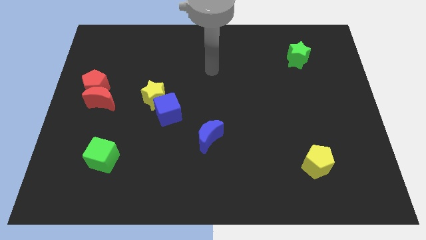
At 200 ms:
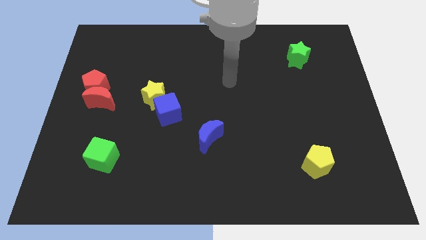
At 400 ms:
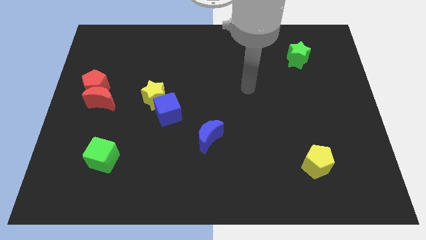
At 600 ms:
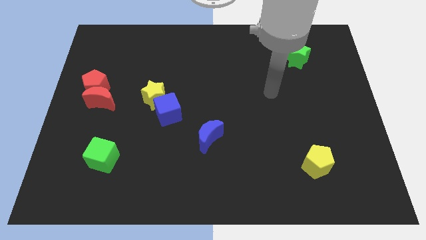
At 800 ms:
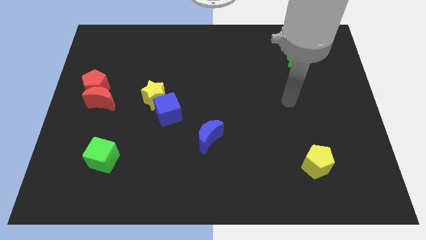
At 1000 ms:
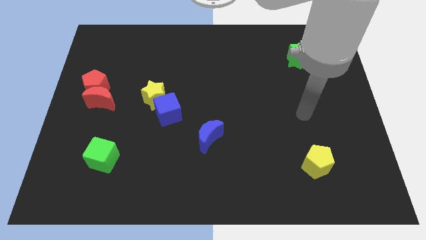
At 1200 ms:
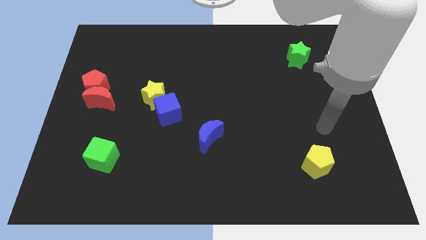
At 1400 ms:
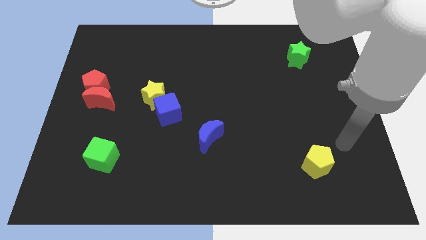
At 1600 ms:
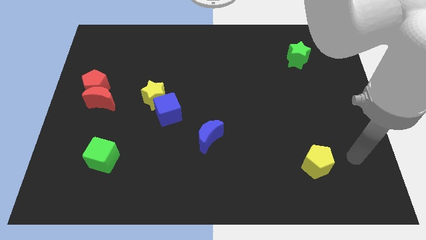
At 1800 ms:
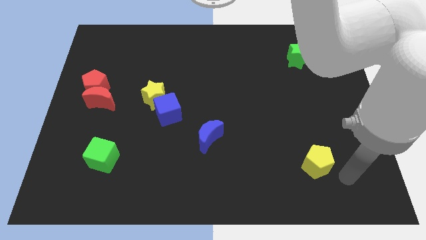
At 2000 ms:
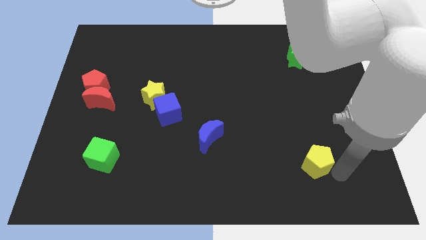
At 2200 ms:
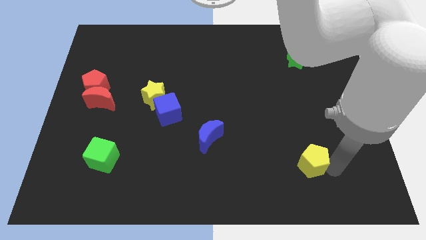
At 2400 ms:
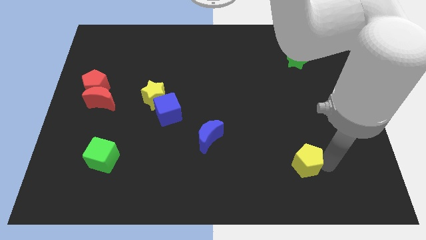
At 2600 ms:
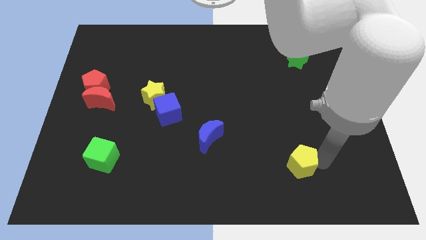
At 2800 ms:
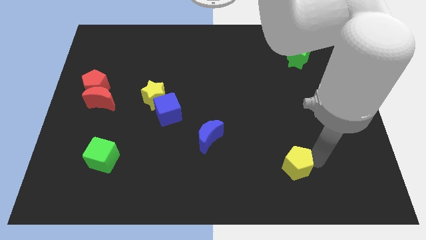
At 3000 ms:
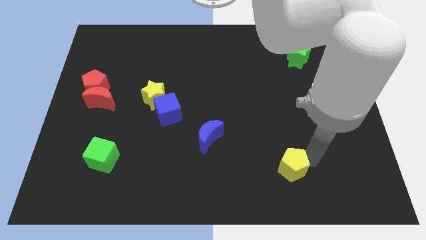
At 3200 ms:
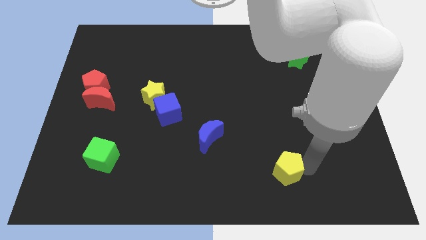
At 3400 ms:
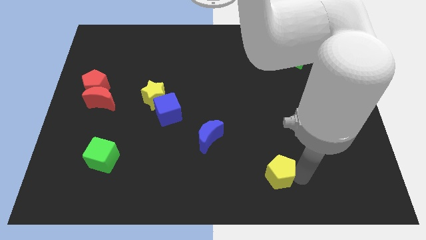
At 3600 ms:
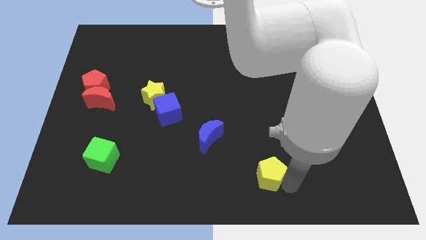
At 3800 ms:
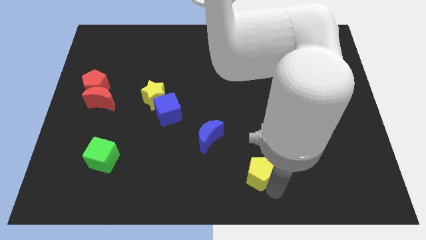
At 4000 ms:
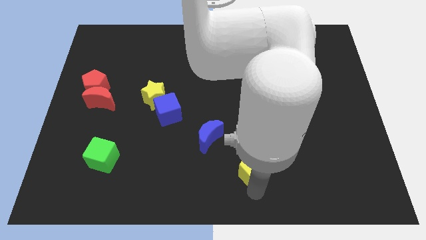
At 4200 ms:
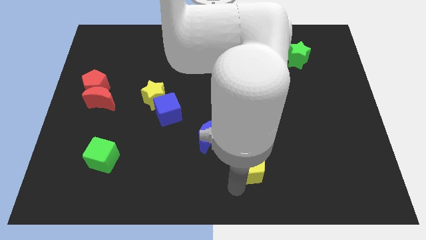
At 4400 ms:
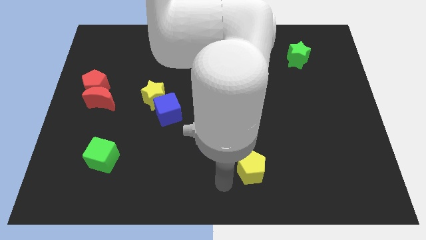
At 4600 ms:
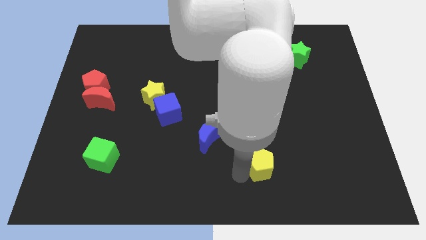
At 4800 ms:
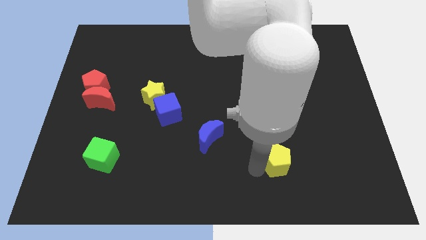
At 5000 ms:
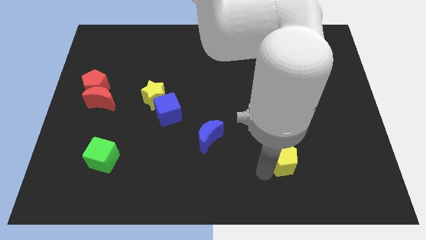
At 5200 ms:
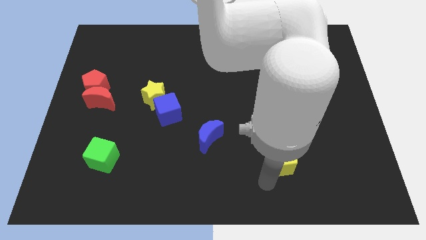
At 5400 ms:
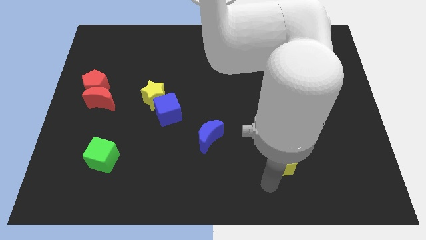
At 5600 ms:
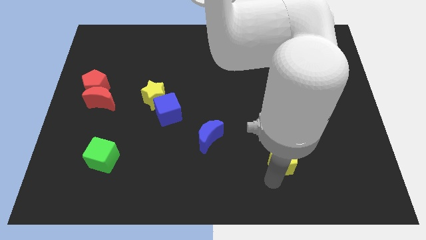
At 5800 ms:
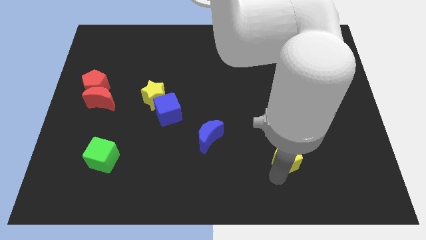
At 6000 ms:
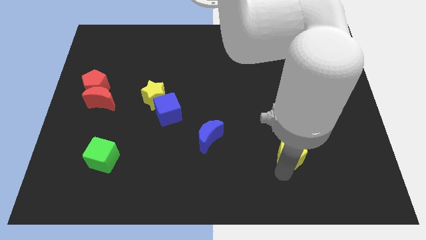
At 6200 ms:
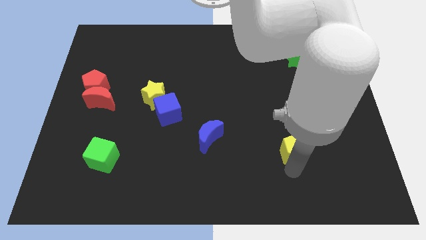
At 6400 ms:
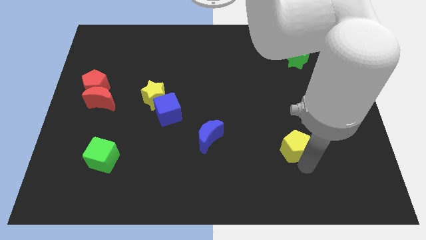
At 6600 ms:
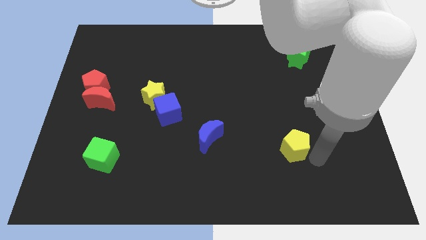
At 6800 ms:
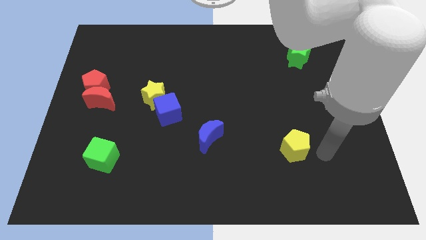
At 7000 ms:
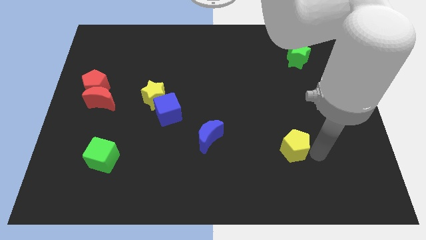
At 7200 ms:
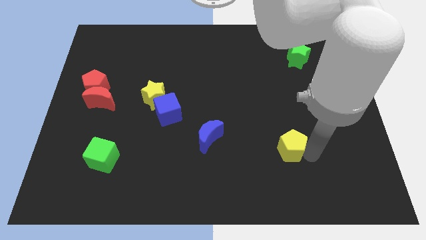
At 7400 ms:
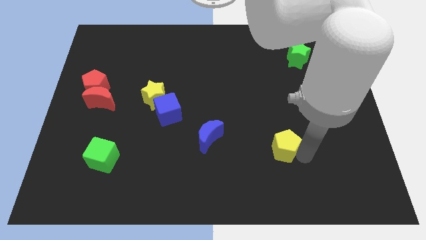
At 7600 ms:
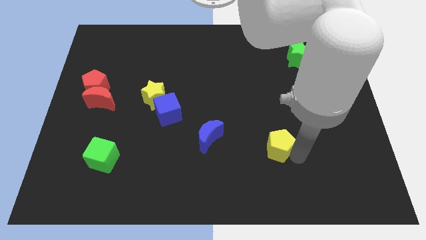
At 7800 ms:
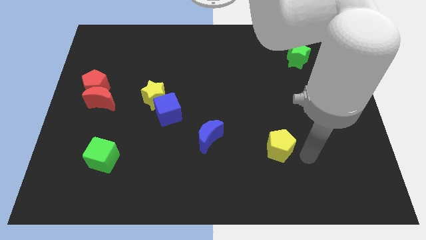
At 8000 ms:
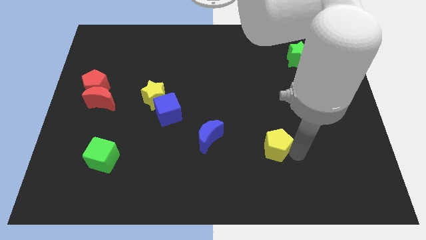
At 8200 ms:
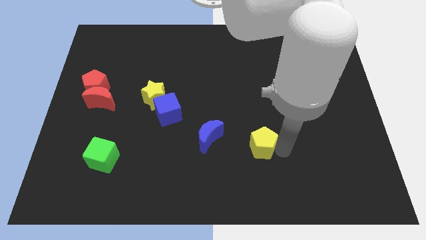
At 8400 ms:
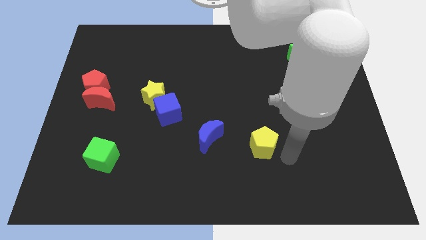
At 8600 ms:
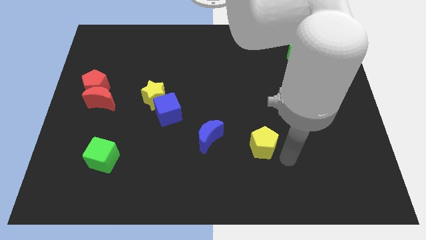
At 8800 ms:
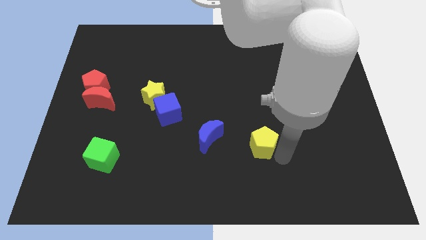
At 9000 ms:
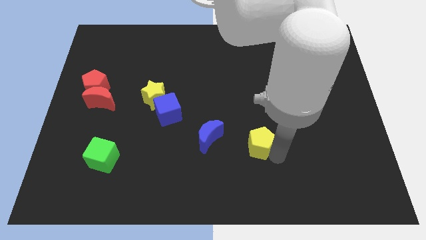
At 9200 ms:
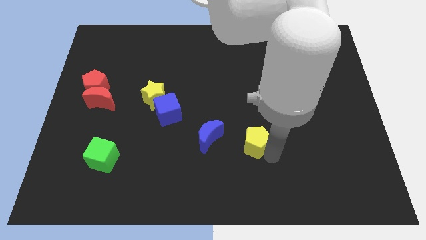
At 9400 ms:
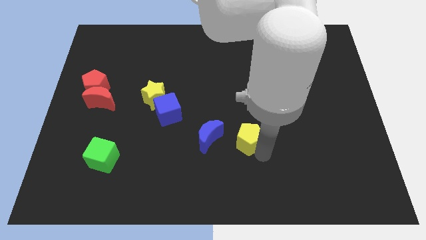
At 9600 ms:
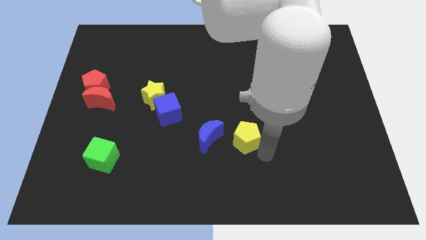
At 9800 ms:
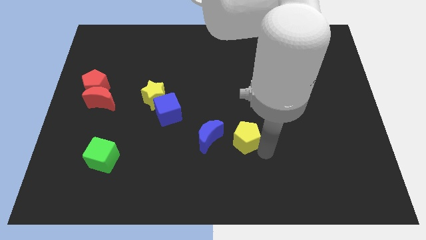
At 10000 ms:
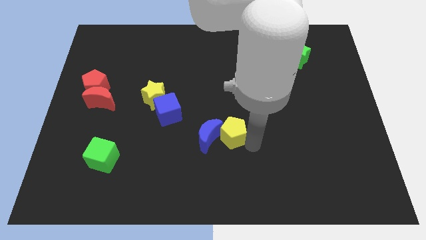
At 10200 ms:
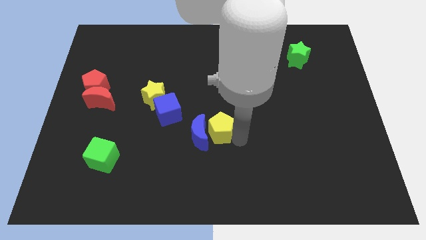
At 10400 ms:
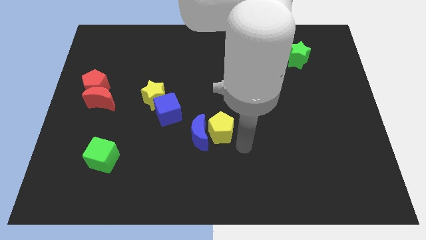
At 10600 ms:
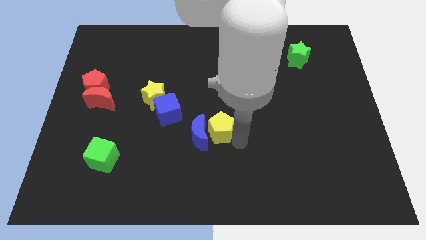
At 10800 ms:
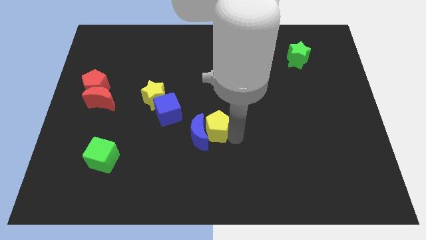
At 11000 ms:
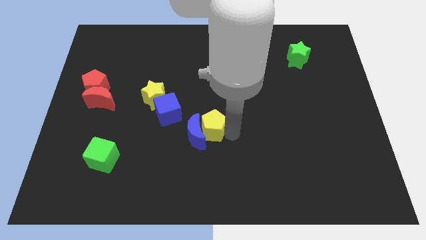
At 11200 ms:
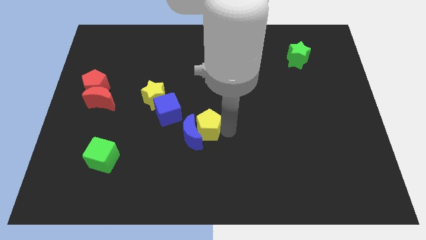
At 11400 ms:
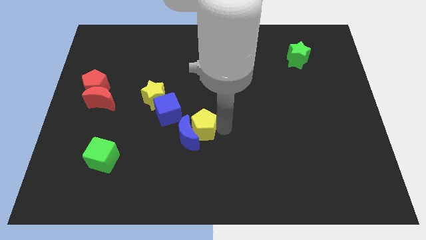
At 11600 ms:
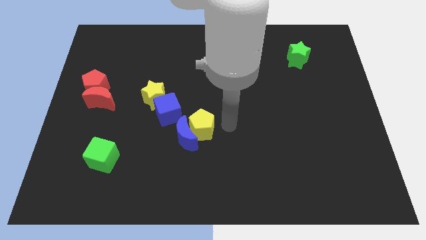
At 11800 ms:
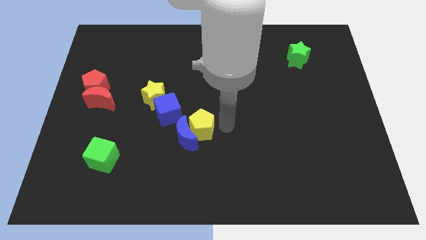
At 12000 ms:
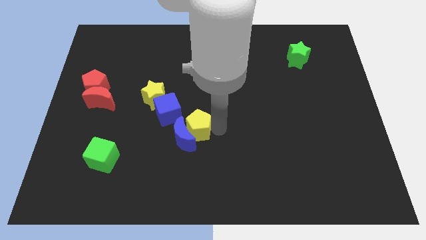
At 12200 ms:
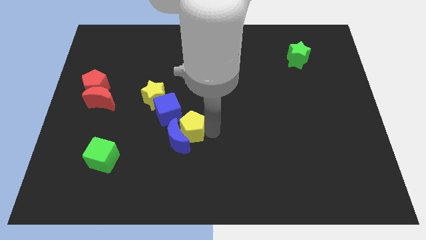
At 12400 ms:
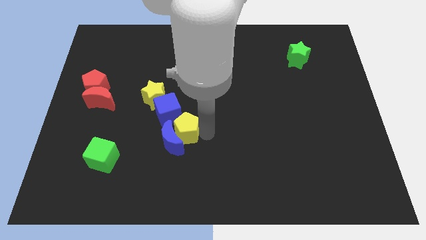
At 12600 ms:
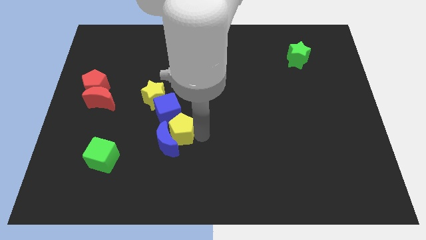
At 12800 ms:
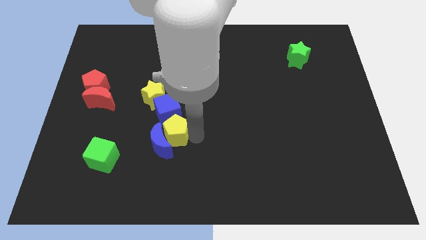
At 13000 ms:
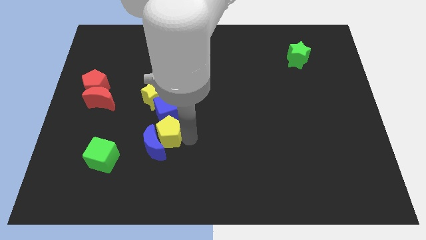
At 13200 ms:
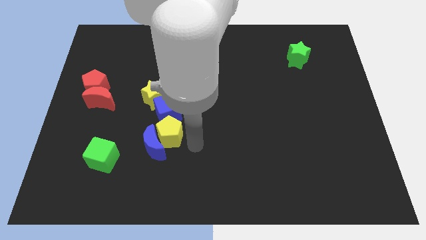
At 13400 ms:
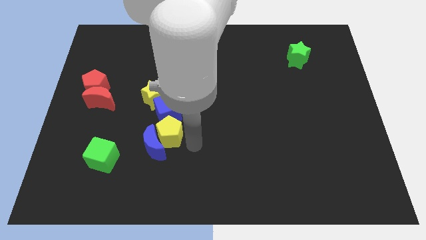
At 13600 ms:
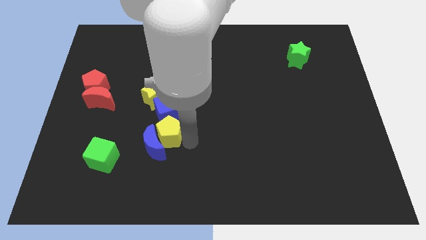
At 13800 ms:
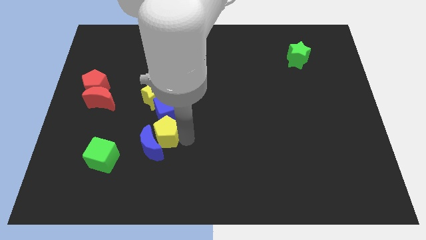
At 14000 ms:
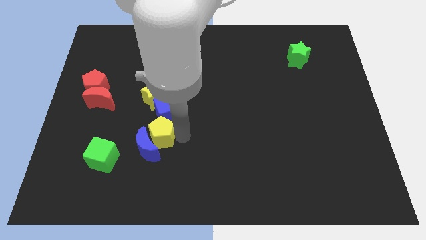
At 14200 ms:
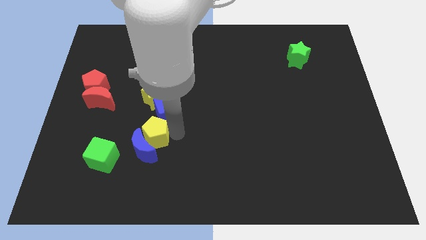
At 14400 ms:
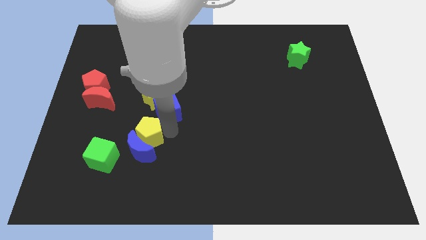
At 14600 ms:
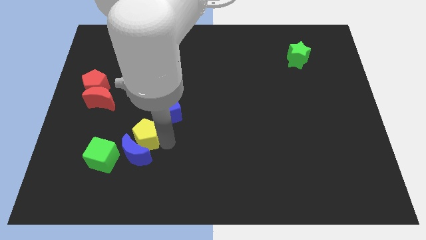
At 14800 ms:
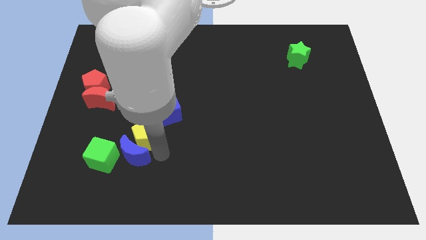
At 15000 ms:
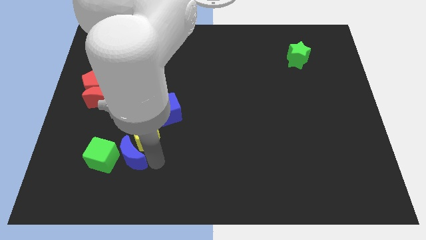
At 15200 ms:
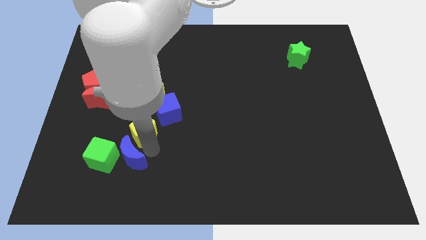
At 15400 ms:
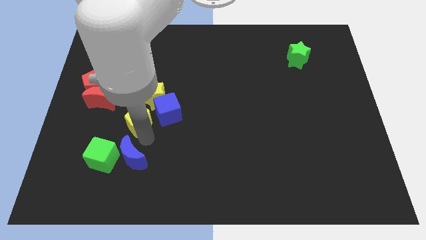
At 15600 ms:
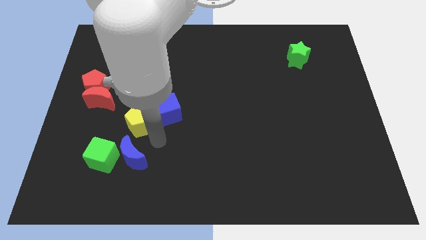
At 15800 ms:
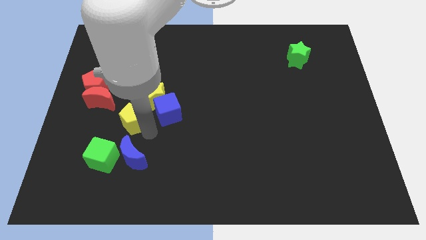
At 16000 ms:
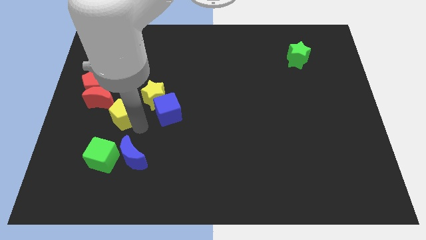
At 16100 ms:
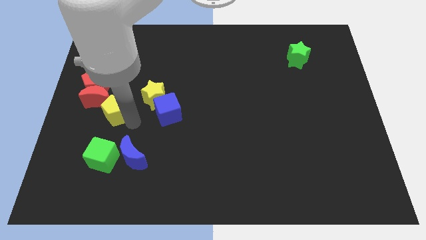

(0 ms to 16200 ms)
move the yellow pentagon next to the red moon
